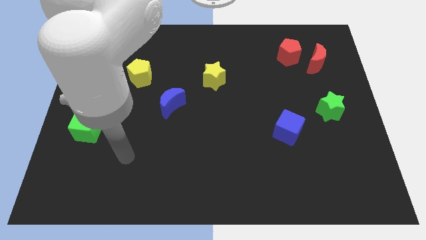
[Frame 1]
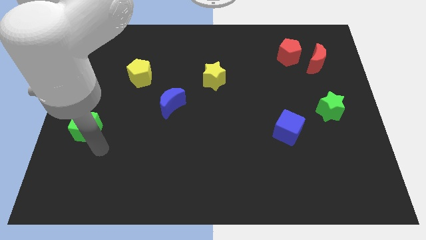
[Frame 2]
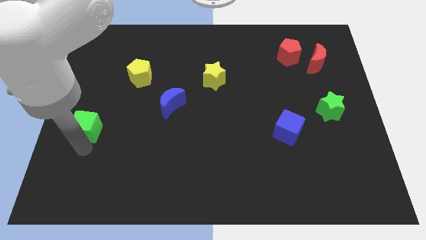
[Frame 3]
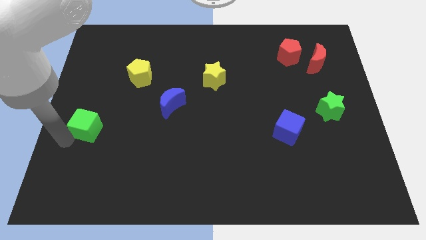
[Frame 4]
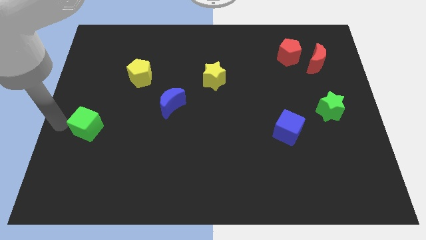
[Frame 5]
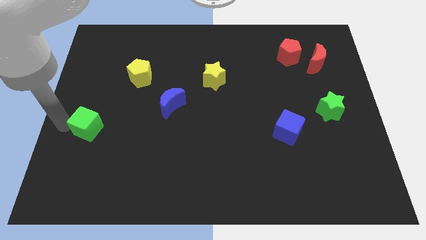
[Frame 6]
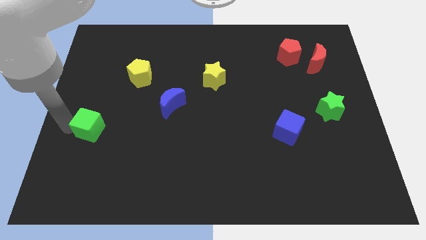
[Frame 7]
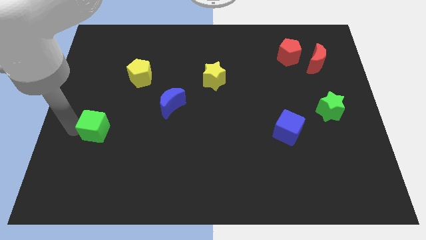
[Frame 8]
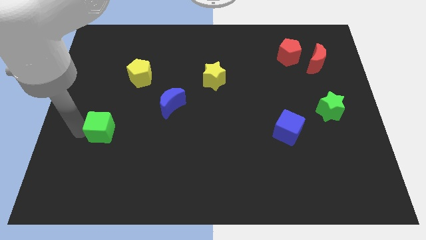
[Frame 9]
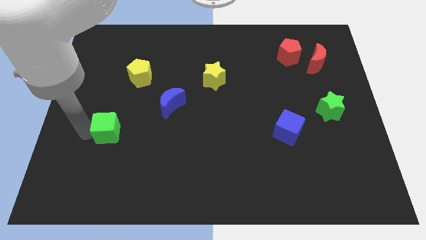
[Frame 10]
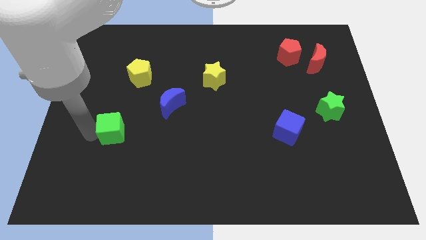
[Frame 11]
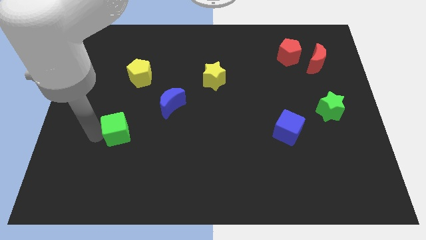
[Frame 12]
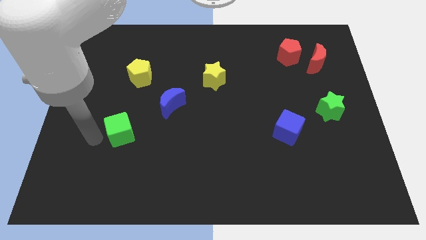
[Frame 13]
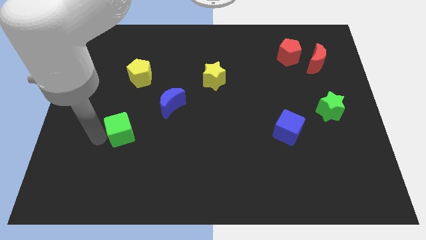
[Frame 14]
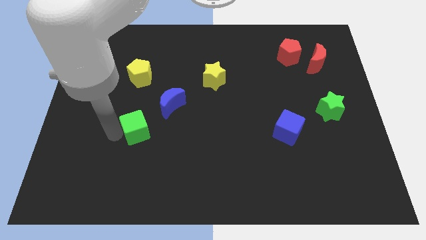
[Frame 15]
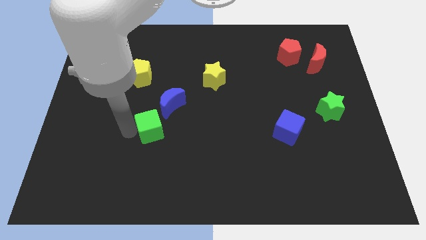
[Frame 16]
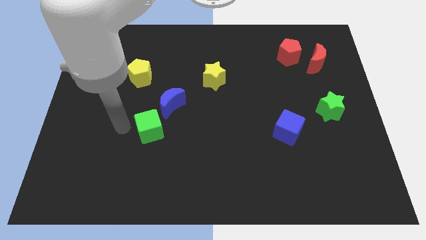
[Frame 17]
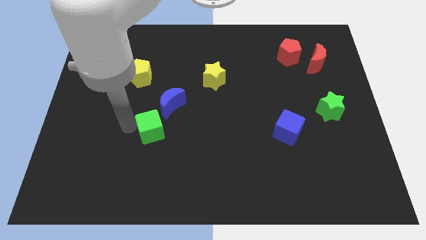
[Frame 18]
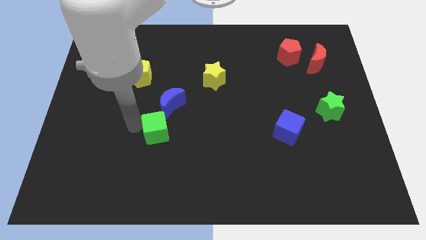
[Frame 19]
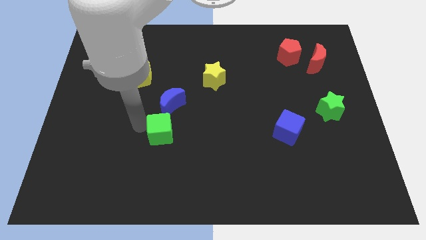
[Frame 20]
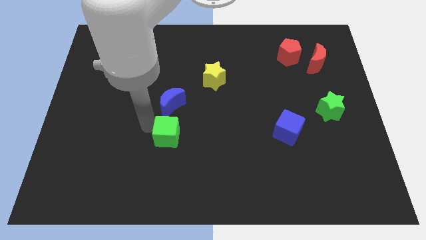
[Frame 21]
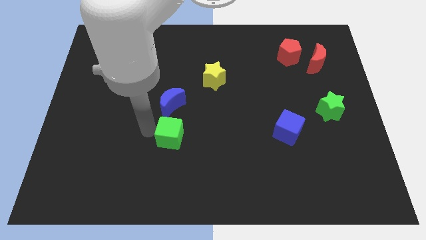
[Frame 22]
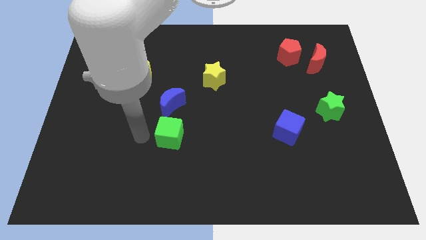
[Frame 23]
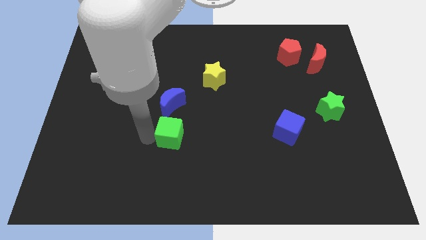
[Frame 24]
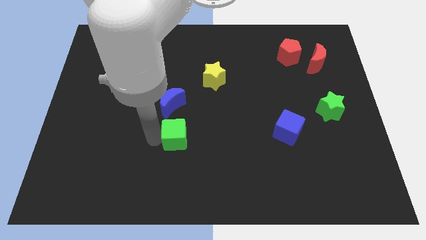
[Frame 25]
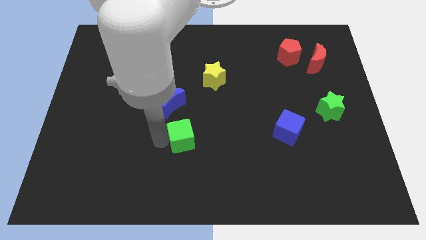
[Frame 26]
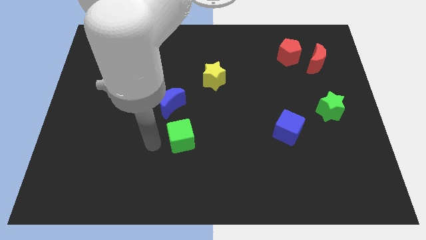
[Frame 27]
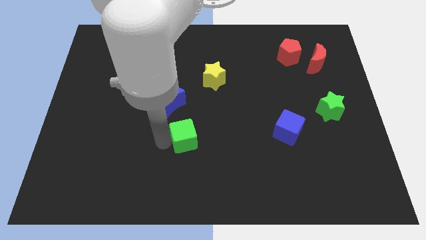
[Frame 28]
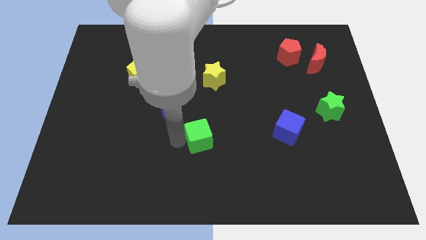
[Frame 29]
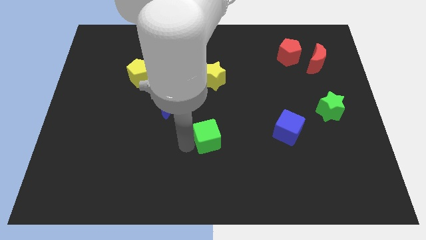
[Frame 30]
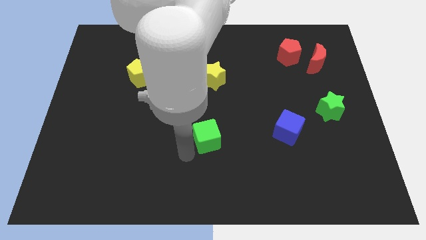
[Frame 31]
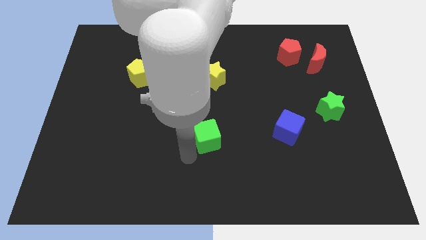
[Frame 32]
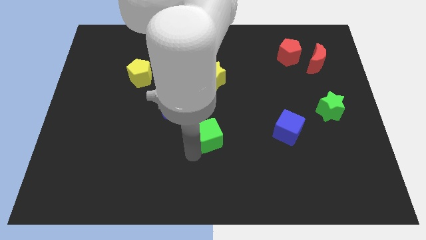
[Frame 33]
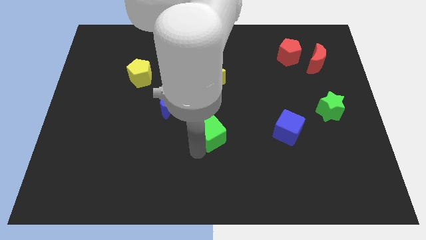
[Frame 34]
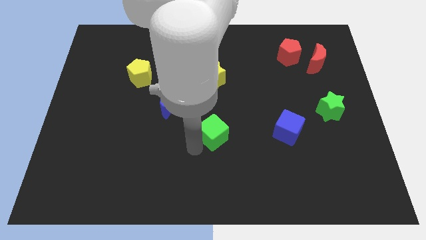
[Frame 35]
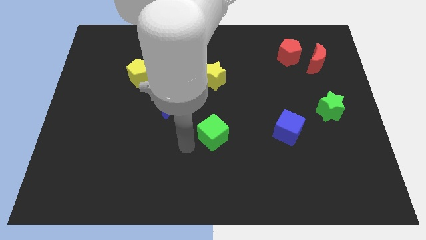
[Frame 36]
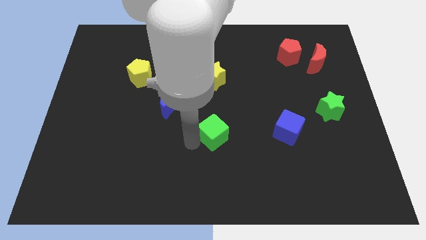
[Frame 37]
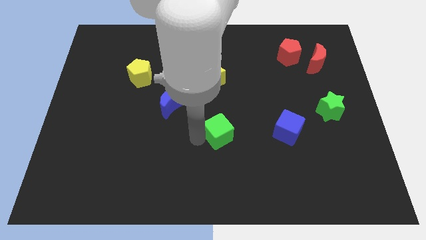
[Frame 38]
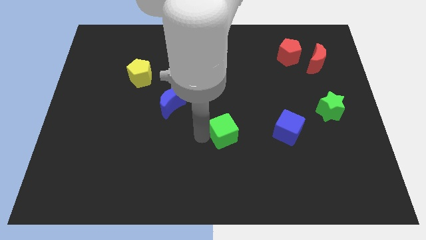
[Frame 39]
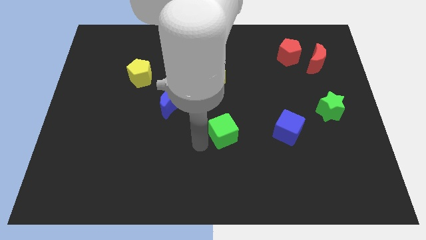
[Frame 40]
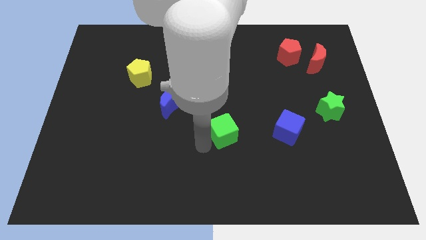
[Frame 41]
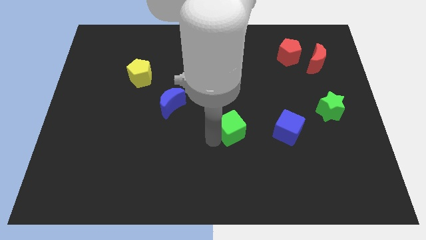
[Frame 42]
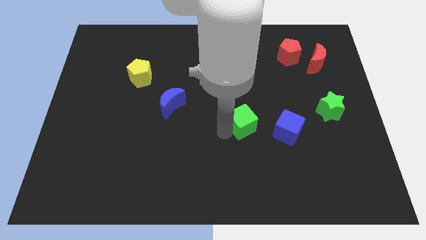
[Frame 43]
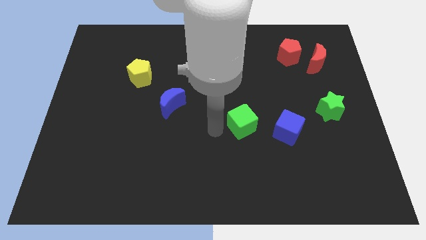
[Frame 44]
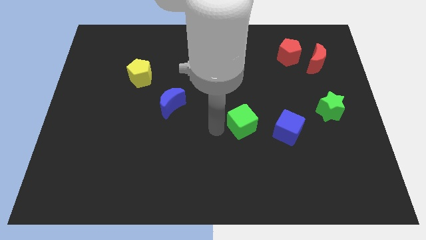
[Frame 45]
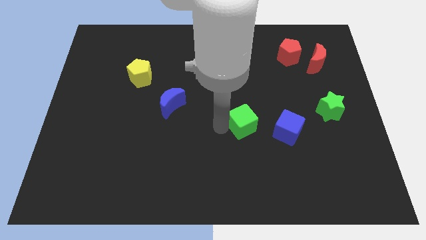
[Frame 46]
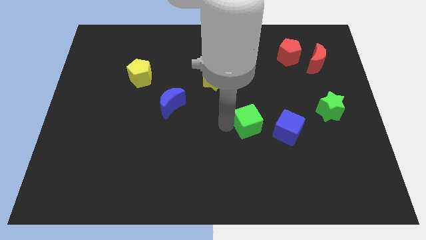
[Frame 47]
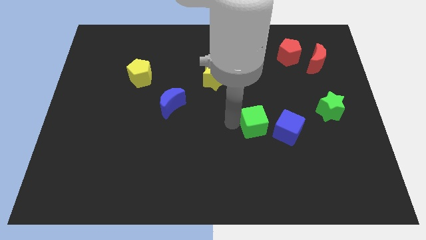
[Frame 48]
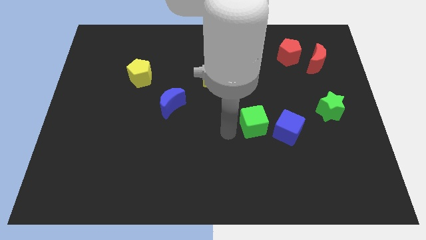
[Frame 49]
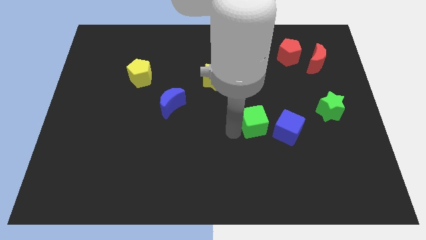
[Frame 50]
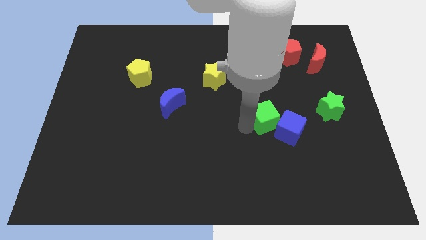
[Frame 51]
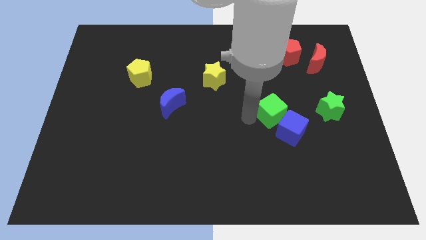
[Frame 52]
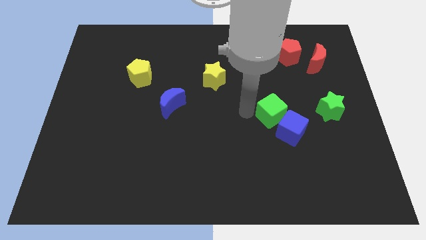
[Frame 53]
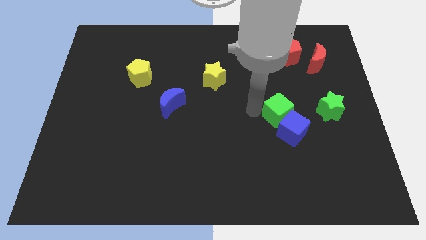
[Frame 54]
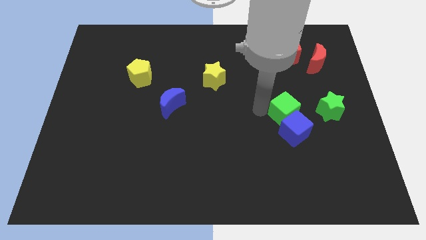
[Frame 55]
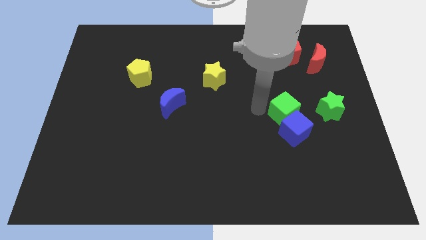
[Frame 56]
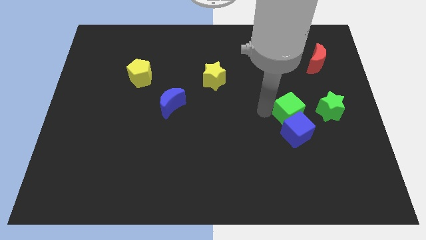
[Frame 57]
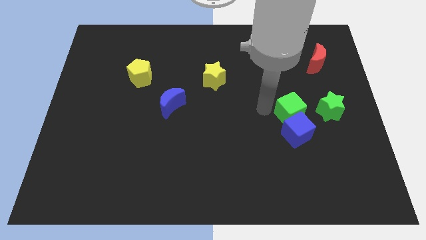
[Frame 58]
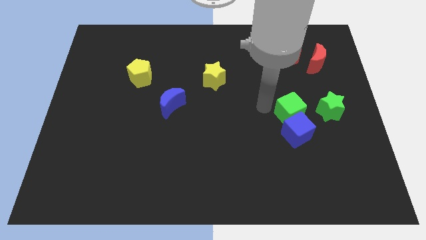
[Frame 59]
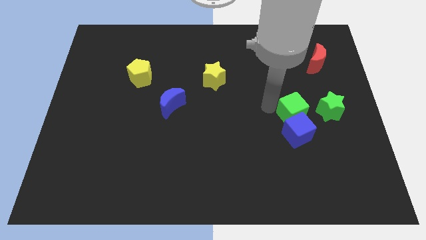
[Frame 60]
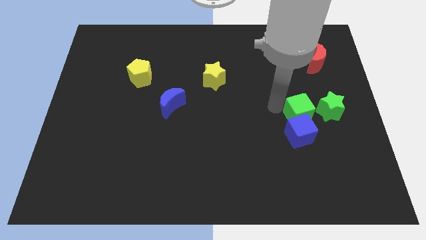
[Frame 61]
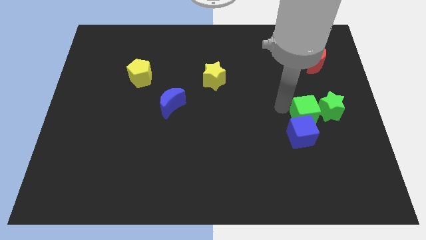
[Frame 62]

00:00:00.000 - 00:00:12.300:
slide the green cube to the green star

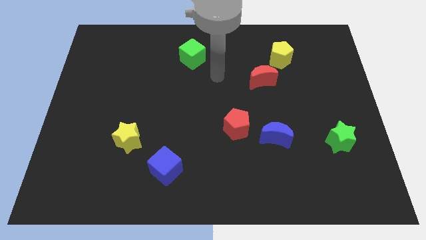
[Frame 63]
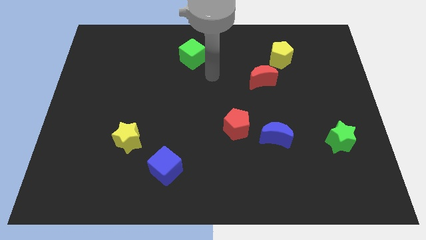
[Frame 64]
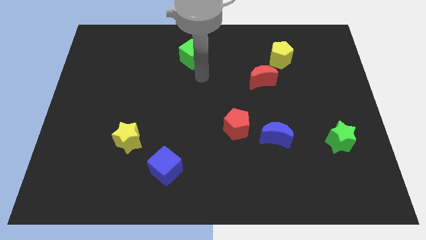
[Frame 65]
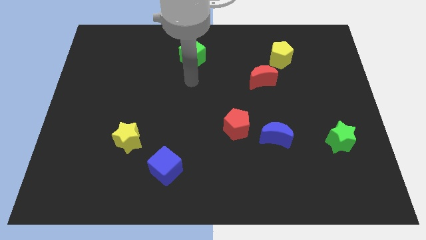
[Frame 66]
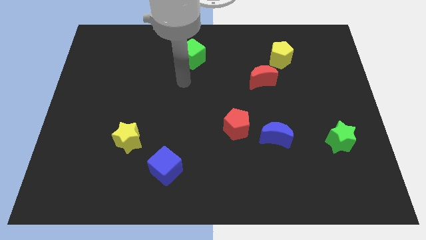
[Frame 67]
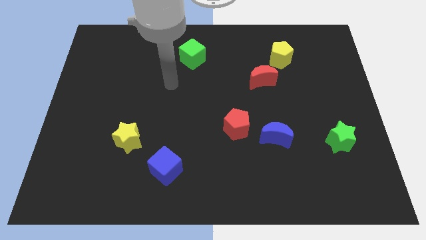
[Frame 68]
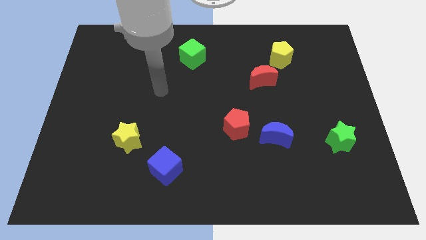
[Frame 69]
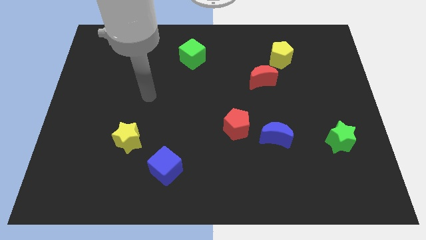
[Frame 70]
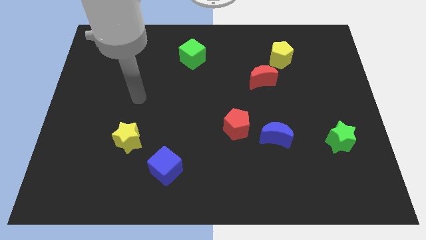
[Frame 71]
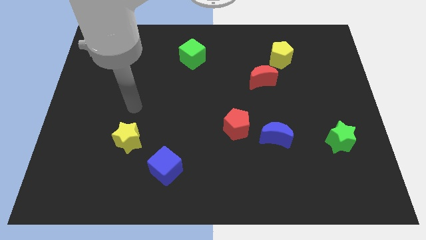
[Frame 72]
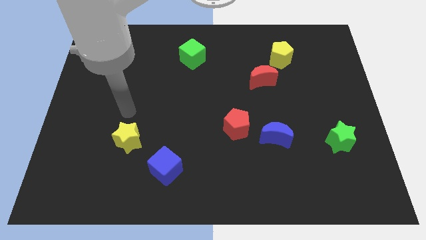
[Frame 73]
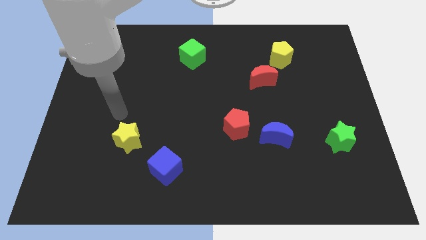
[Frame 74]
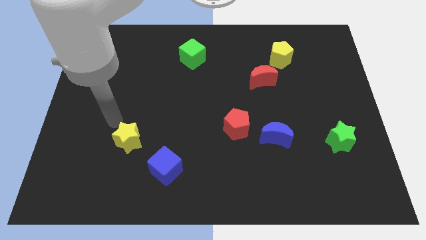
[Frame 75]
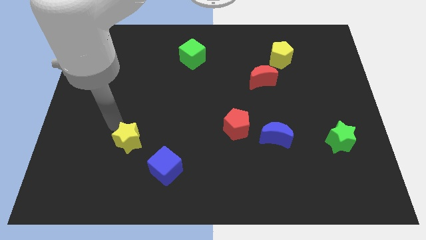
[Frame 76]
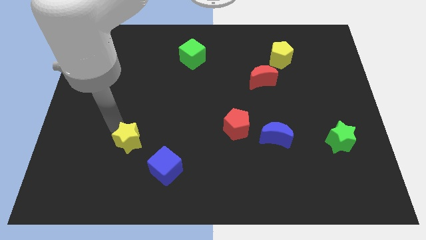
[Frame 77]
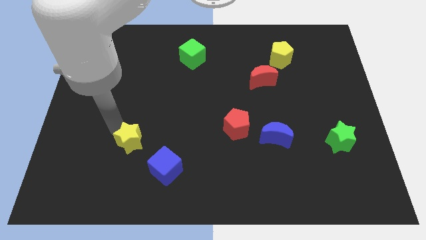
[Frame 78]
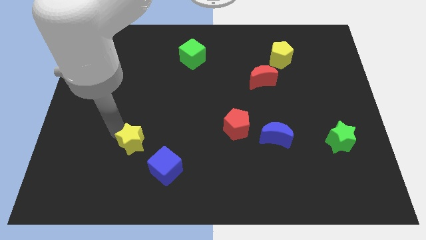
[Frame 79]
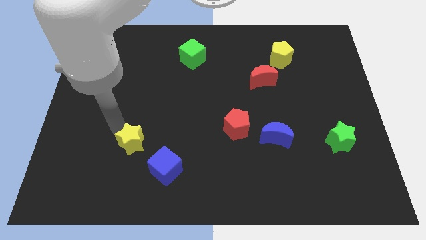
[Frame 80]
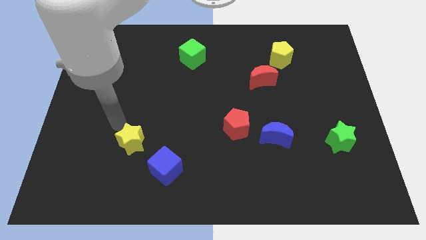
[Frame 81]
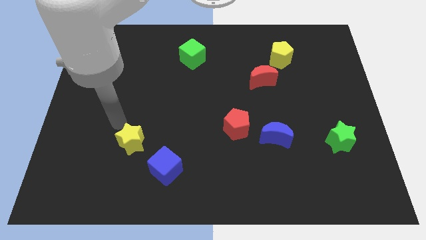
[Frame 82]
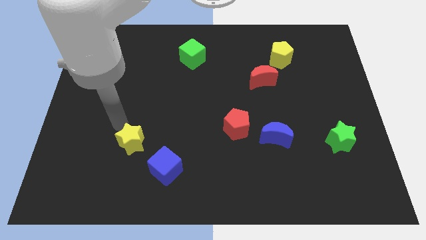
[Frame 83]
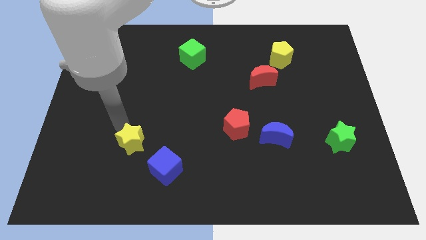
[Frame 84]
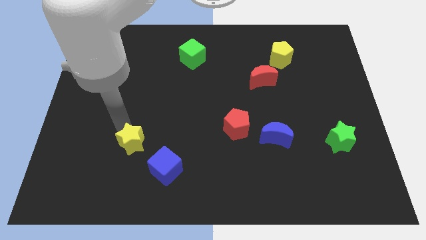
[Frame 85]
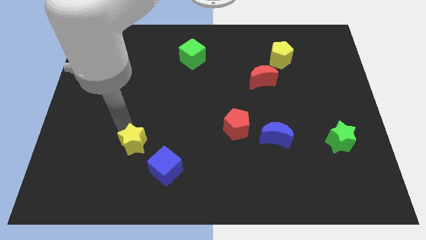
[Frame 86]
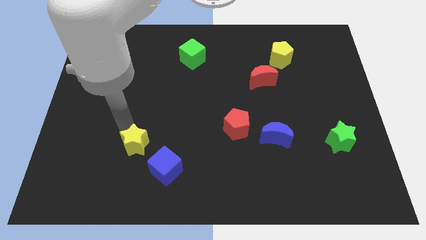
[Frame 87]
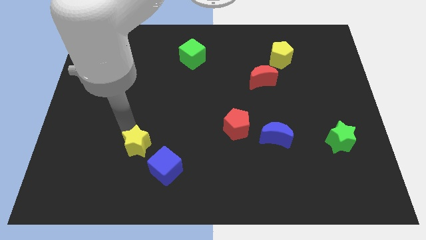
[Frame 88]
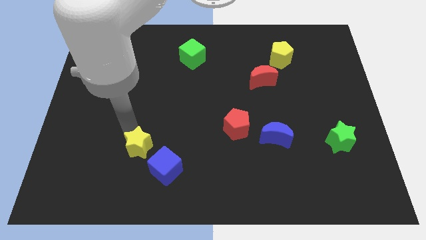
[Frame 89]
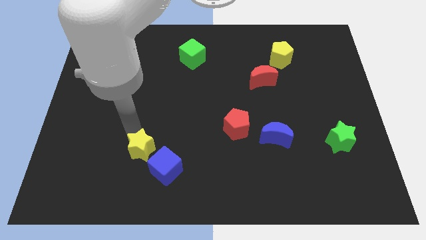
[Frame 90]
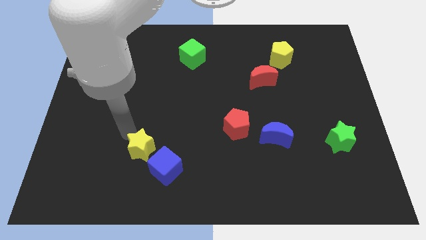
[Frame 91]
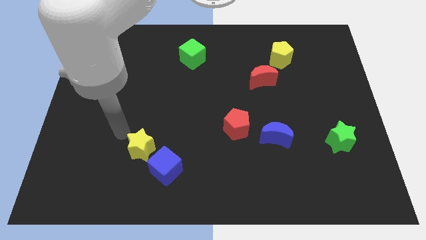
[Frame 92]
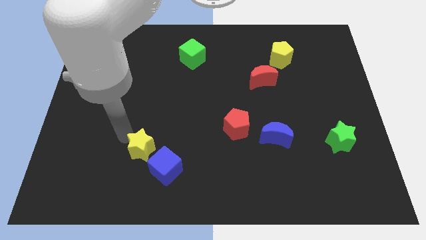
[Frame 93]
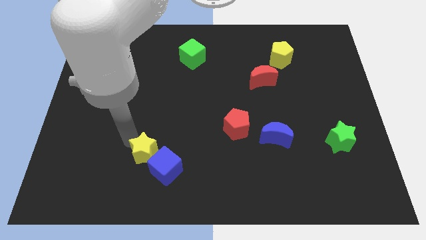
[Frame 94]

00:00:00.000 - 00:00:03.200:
move the yellow star to the blue cube
